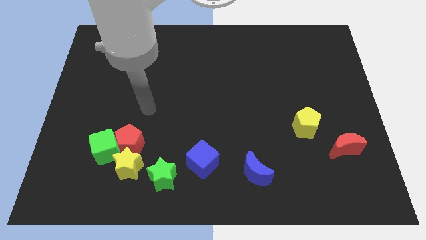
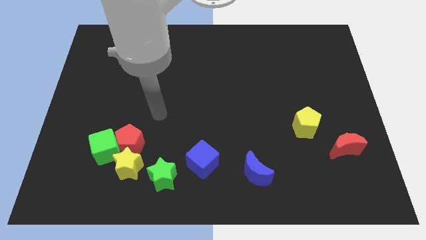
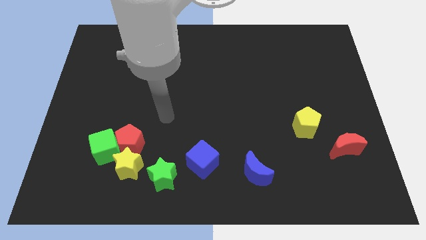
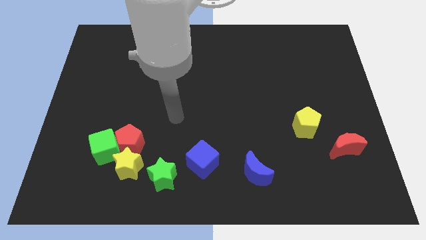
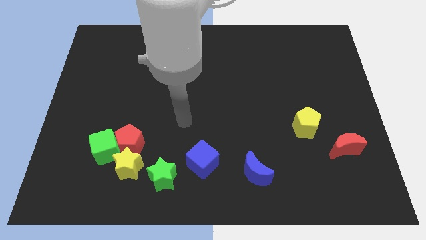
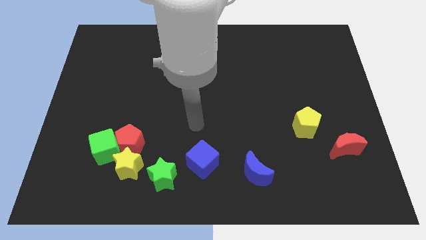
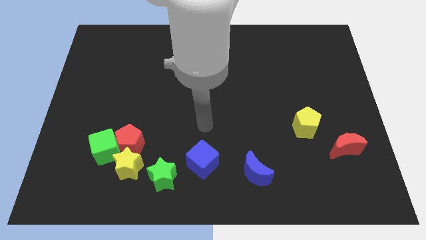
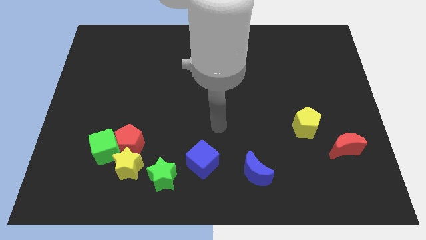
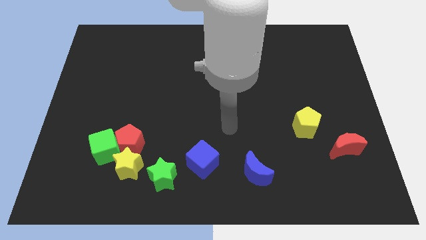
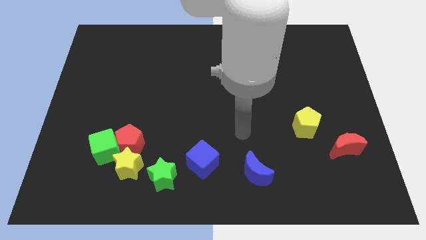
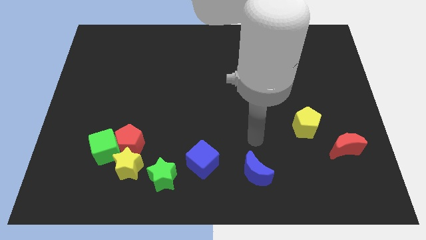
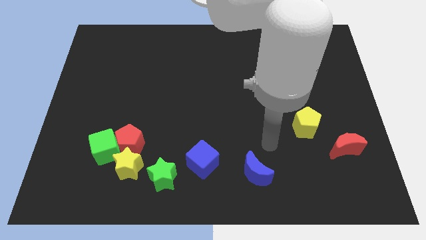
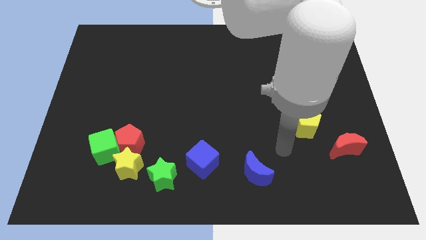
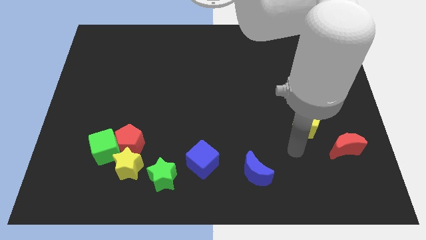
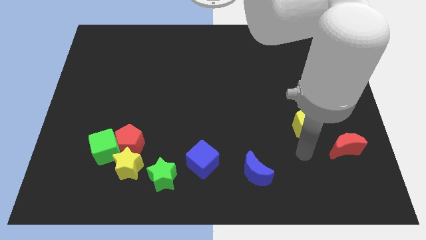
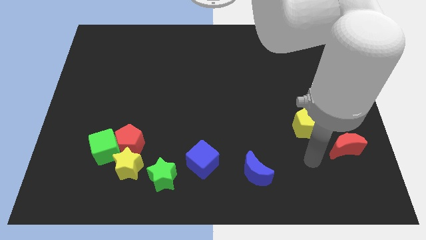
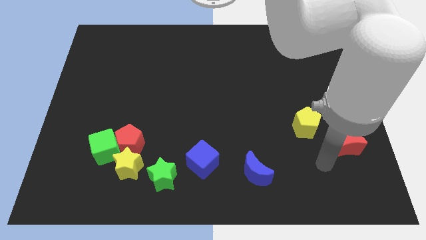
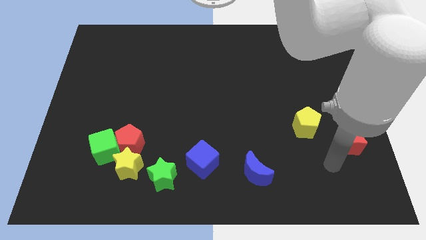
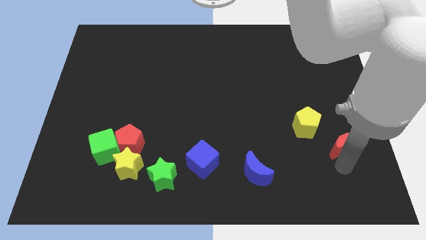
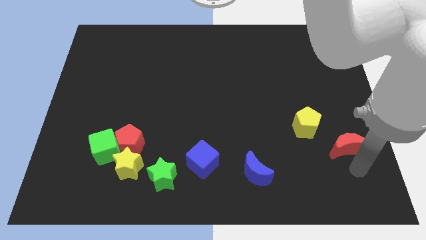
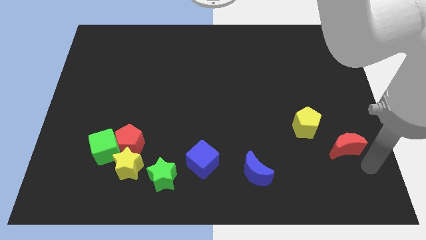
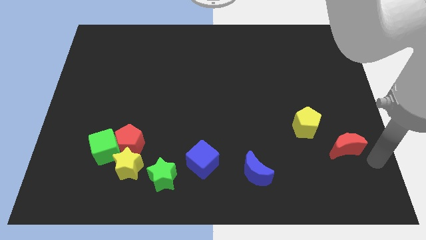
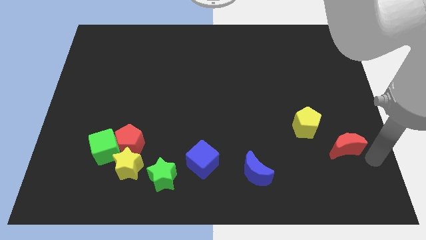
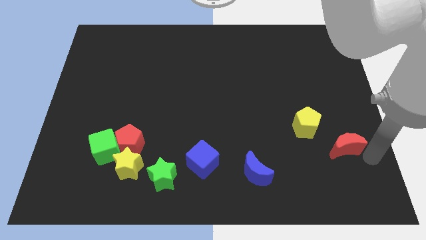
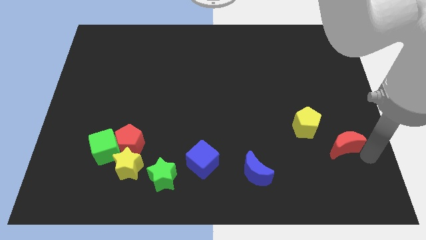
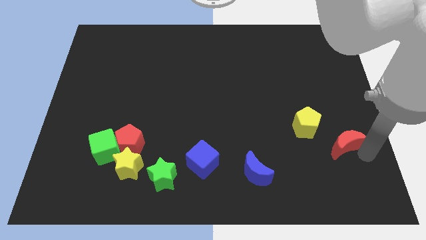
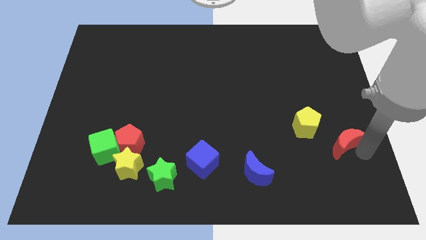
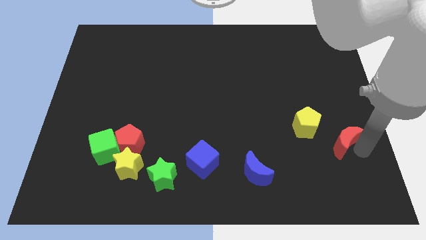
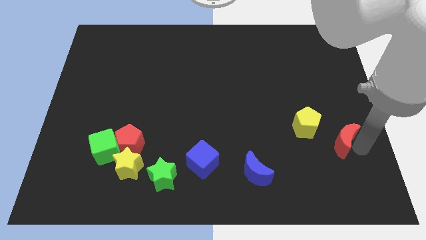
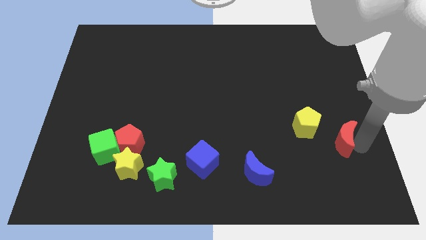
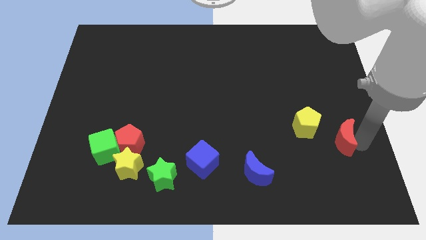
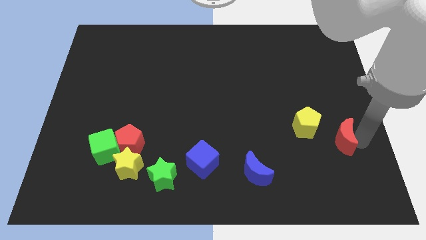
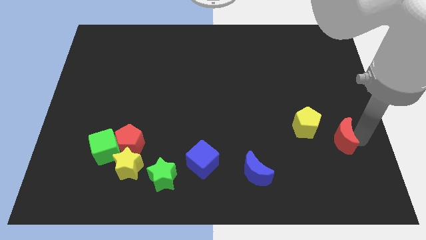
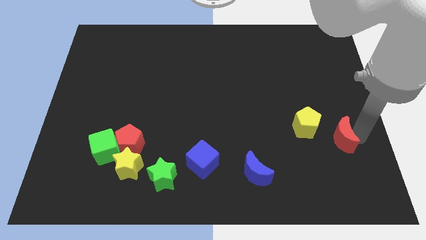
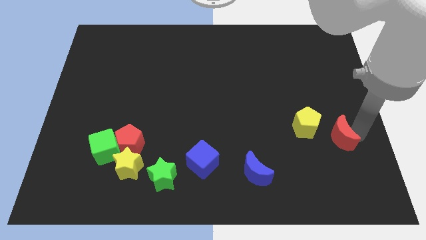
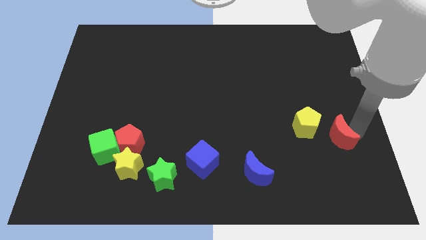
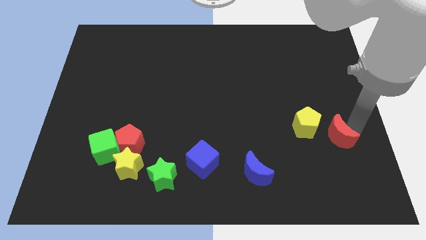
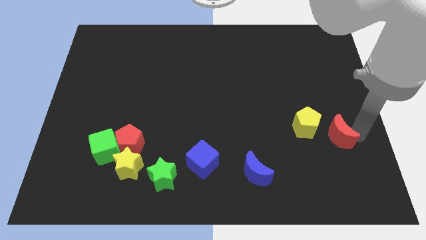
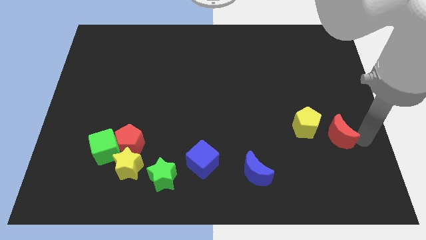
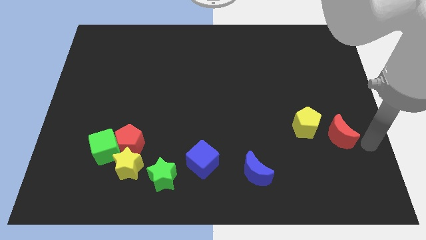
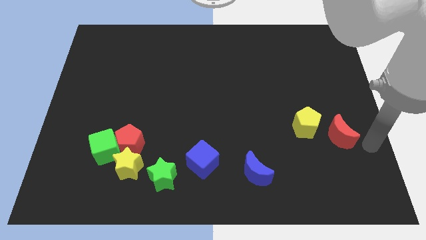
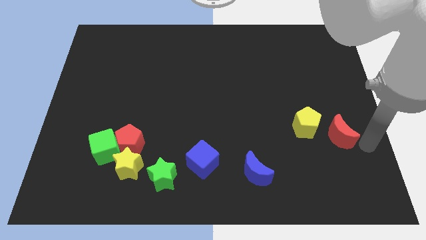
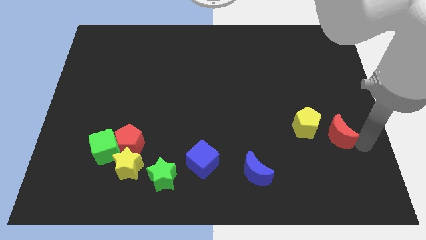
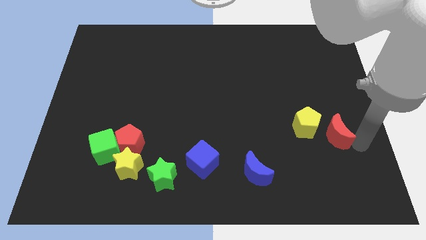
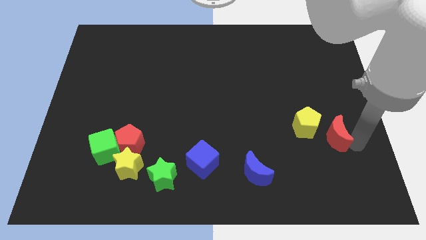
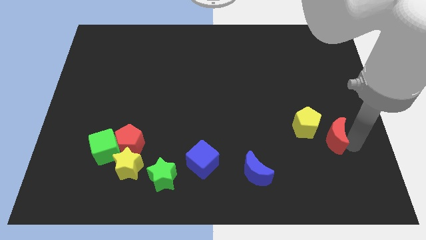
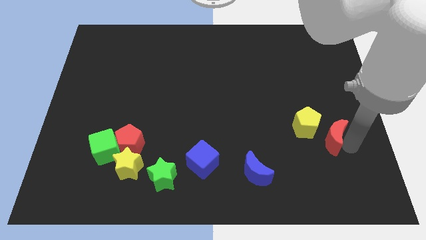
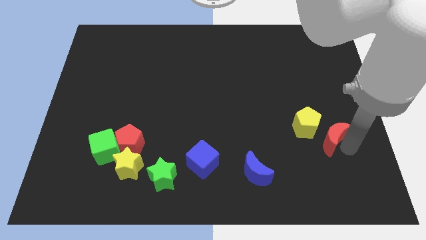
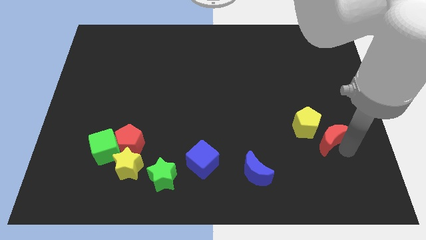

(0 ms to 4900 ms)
move the red moon close to the yellow pentagon

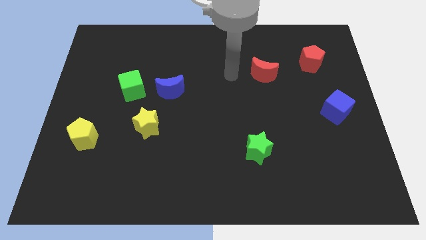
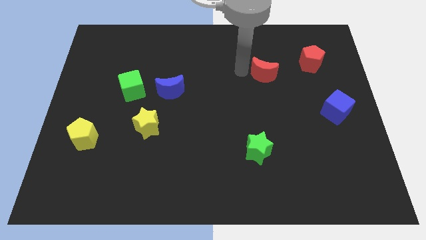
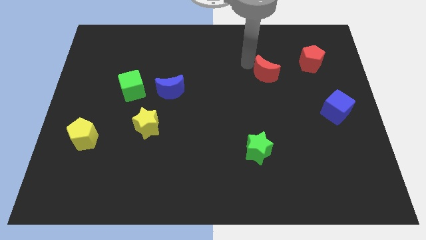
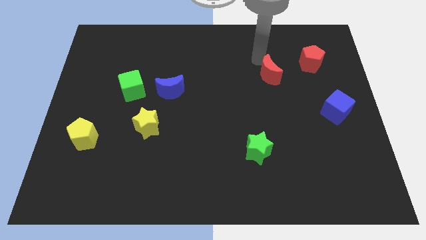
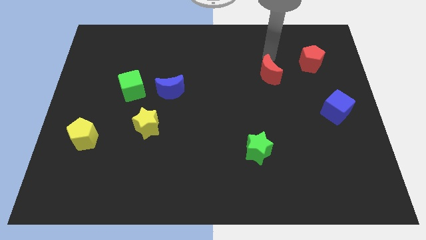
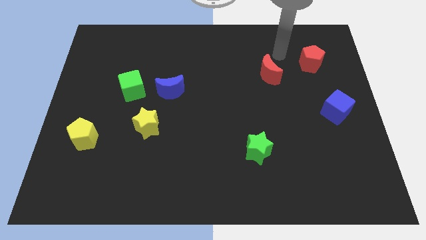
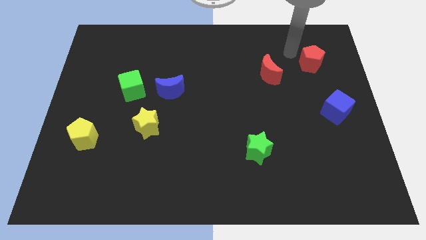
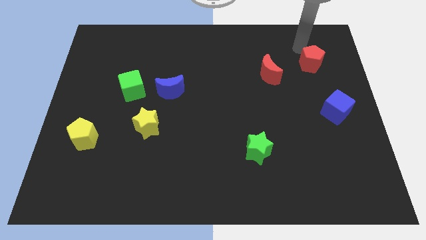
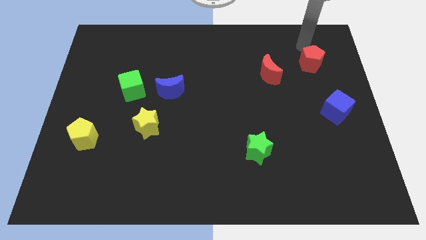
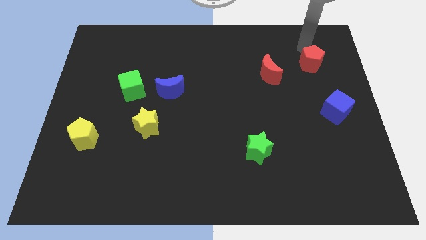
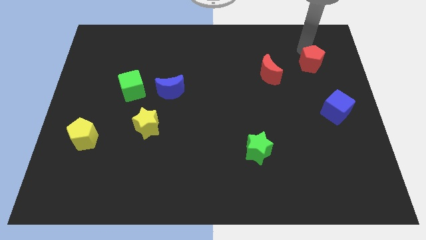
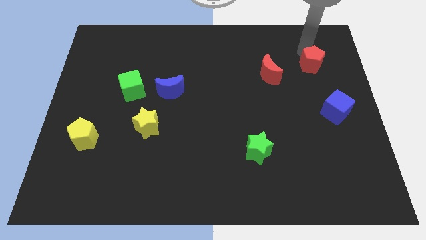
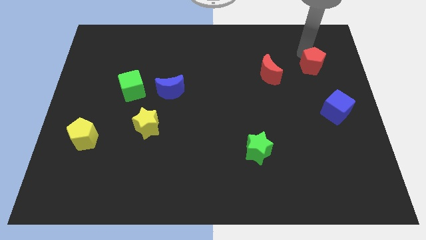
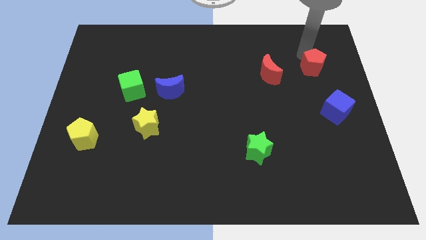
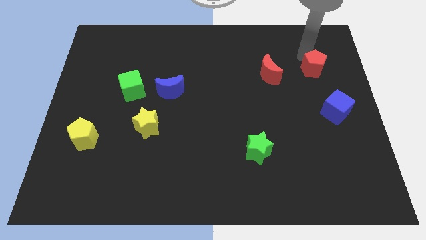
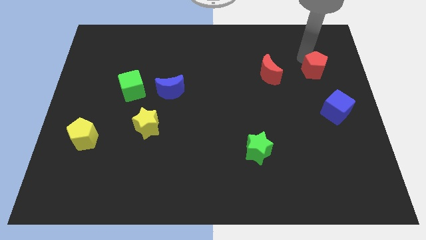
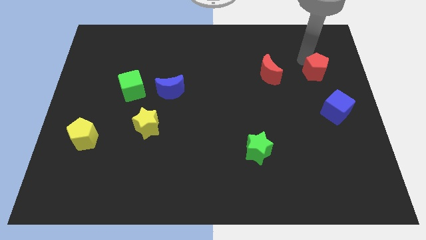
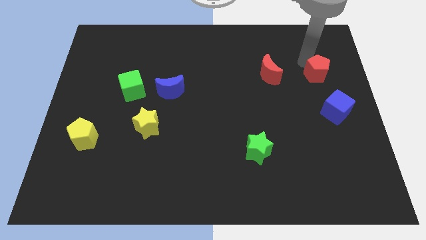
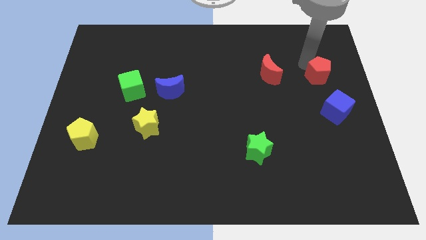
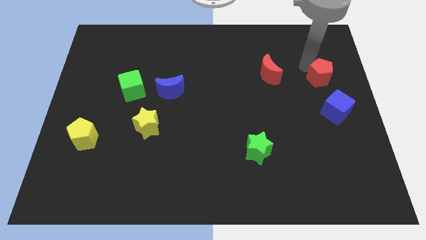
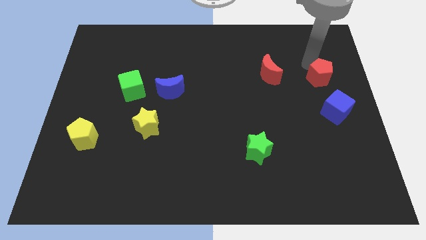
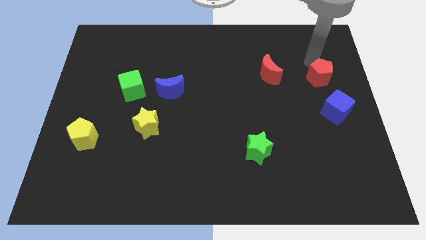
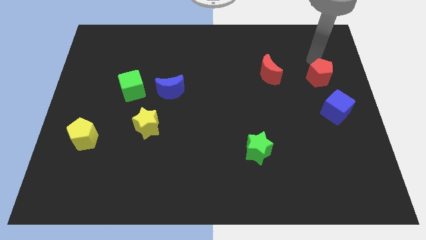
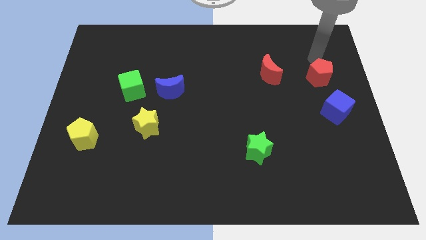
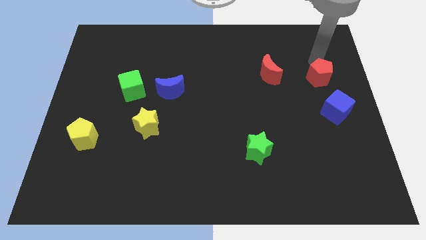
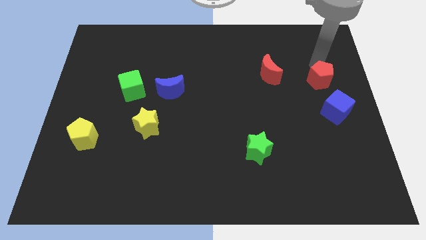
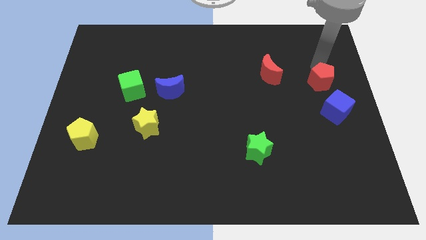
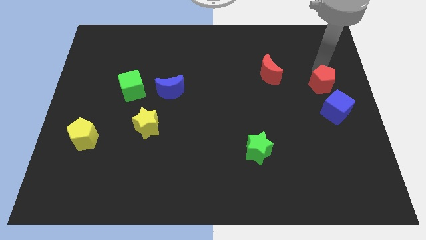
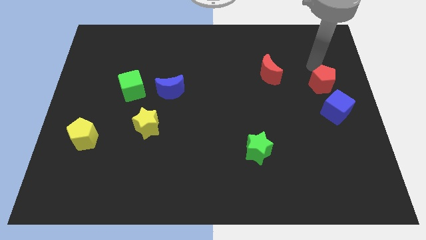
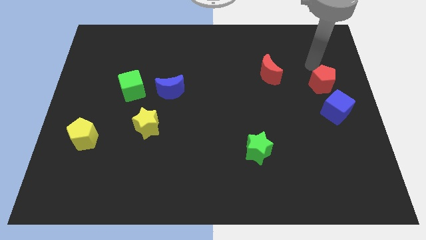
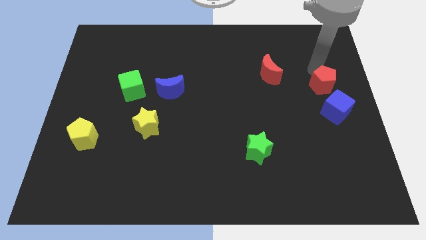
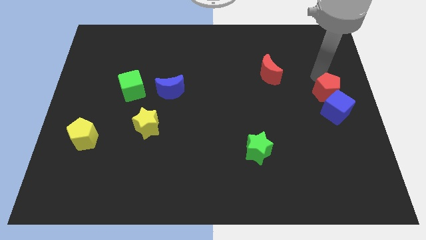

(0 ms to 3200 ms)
put the red pentagon towards the blue cube

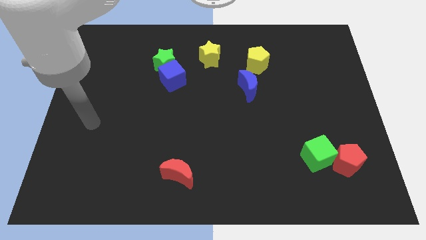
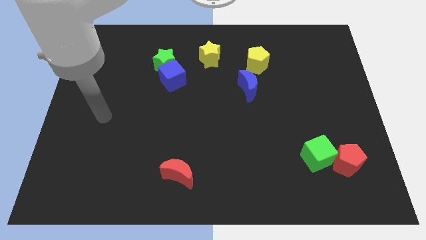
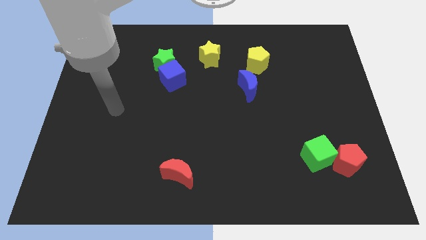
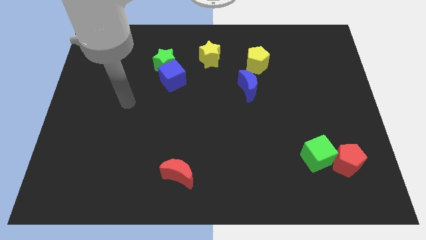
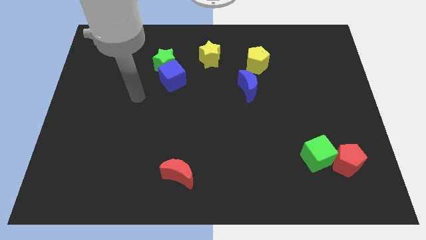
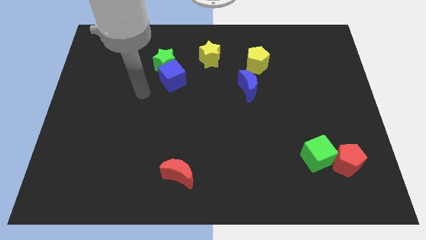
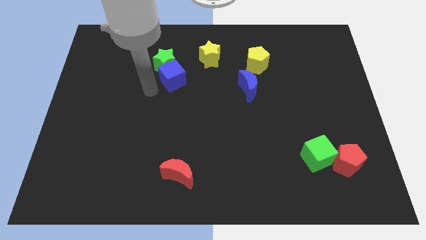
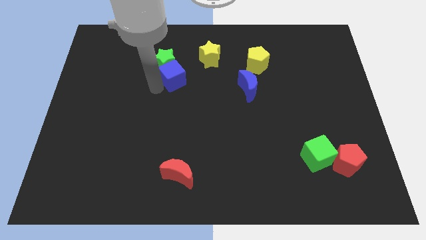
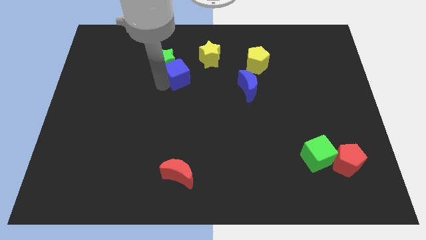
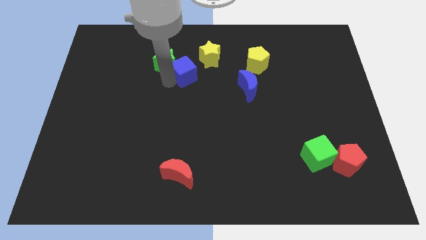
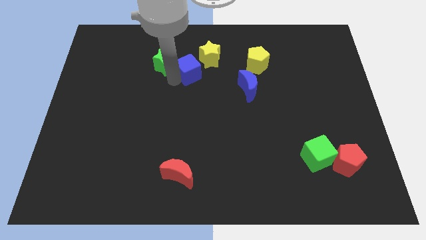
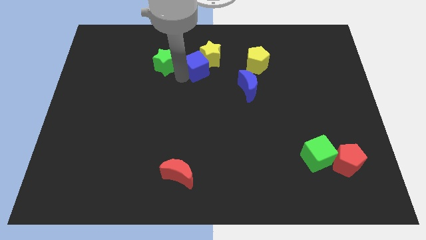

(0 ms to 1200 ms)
slide the blue cube next to the yellow star
